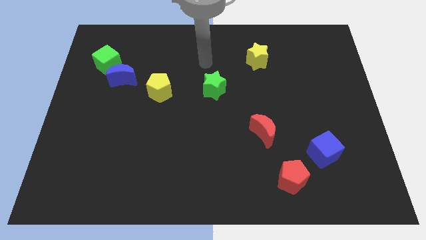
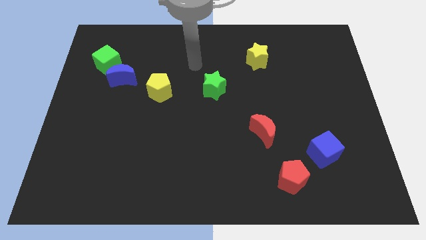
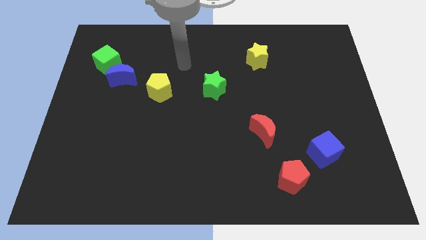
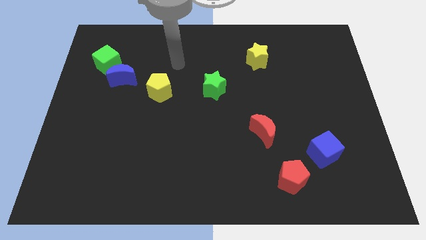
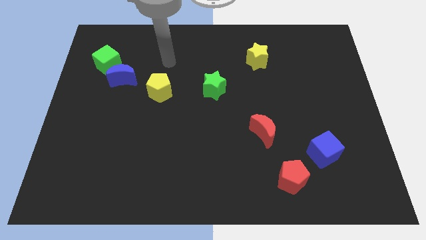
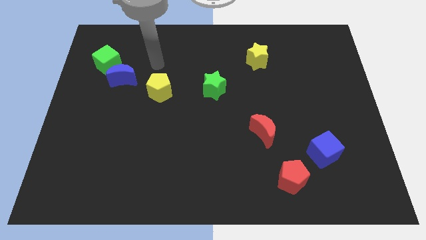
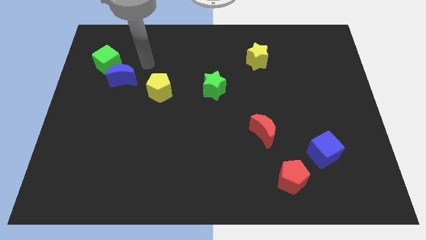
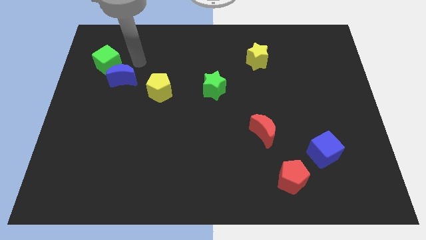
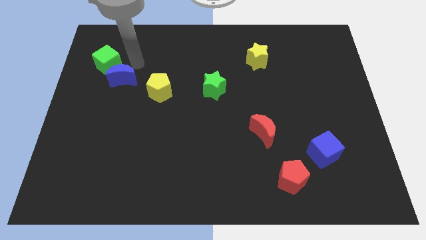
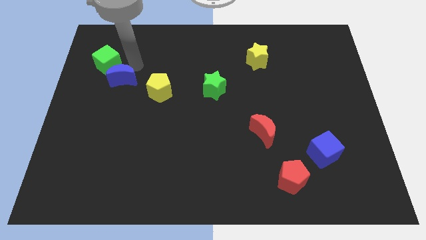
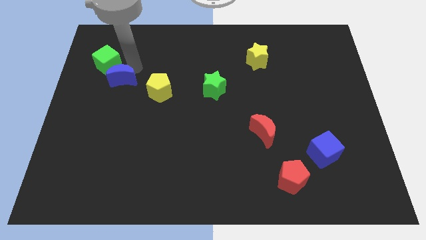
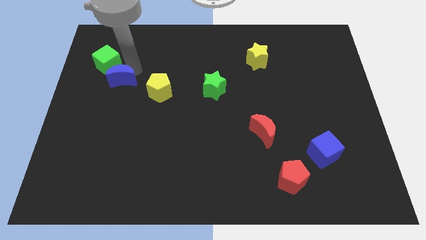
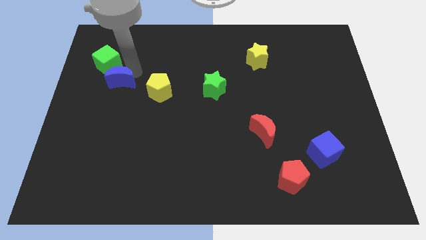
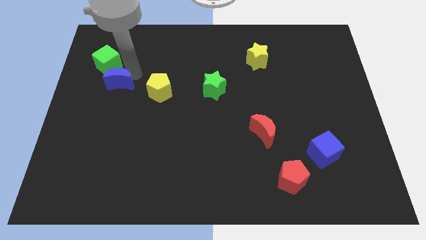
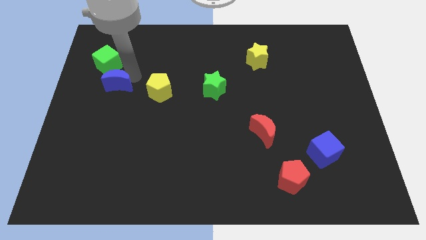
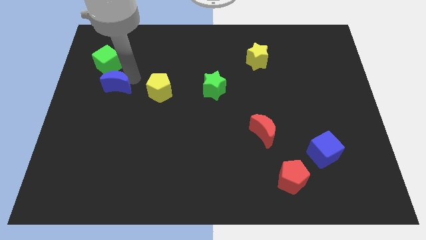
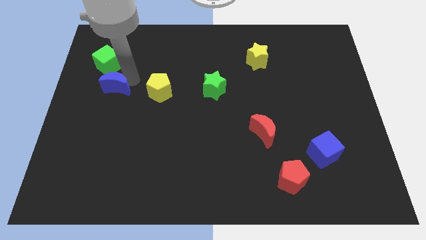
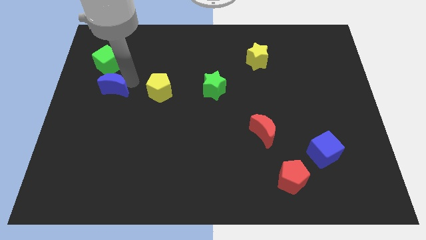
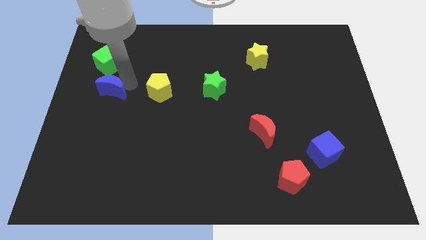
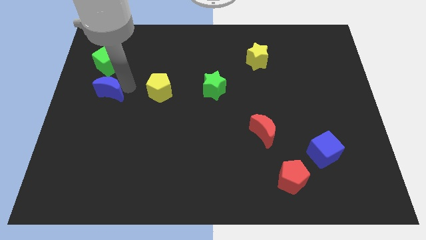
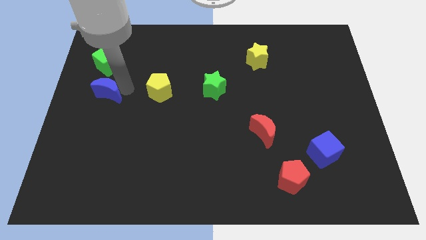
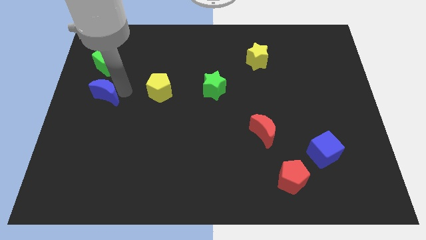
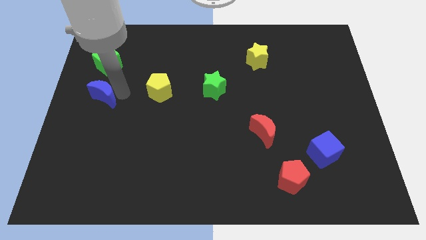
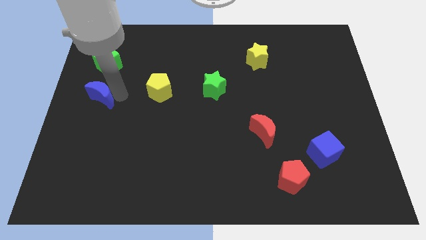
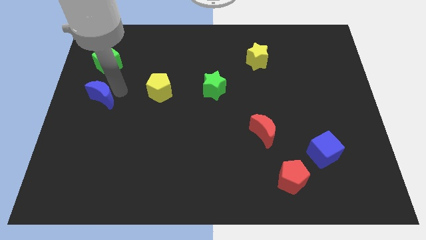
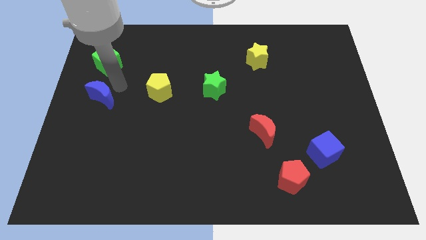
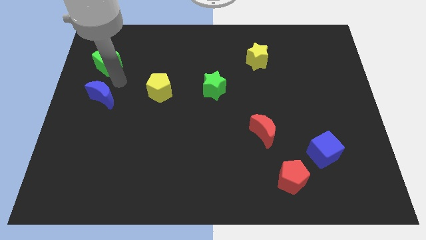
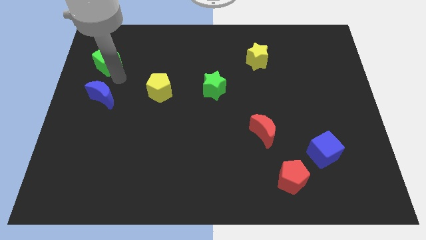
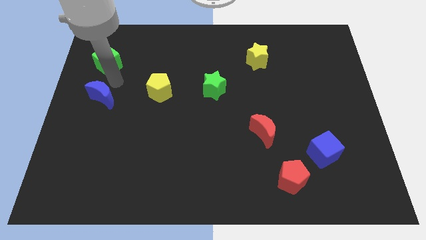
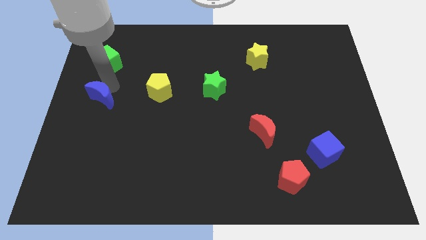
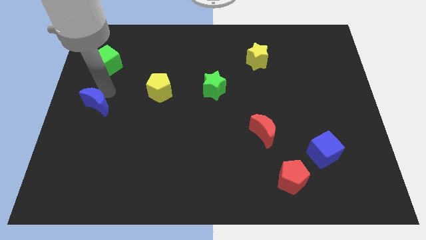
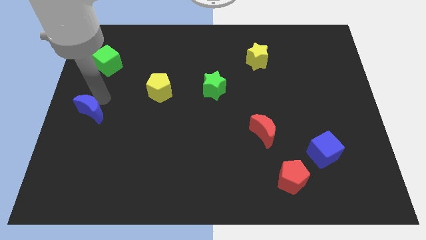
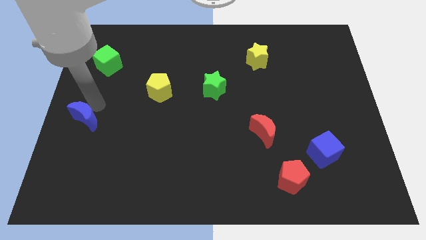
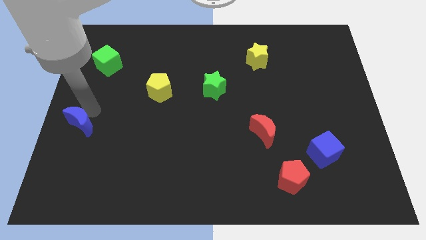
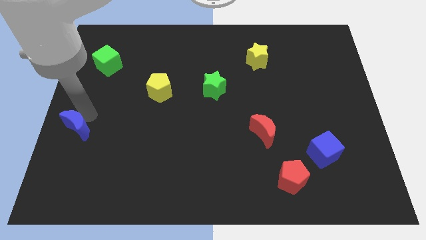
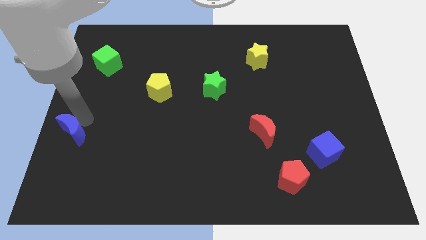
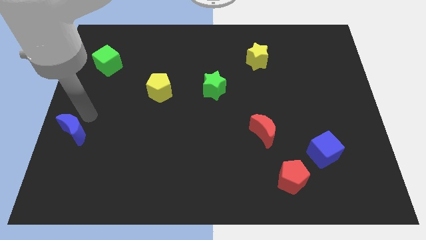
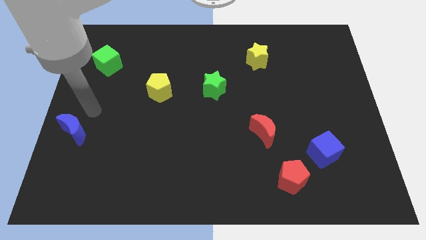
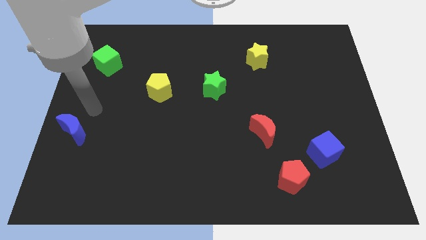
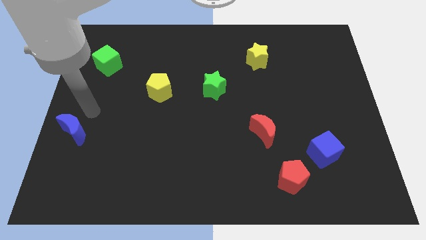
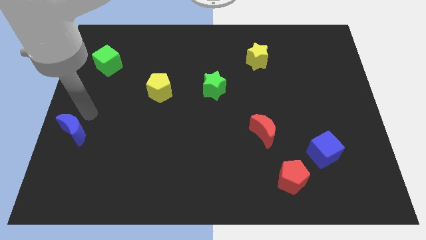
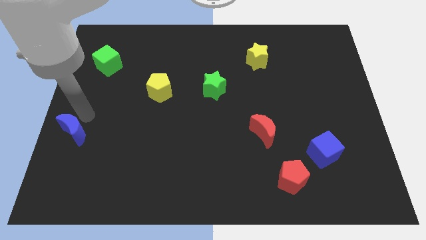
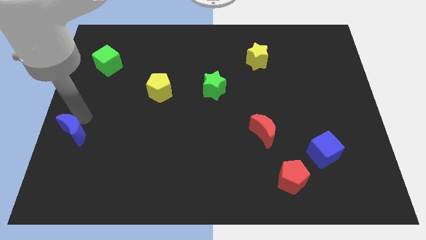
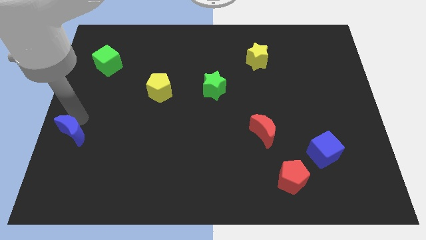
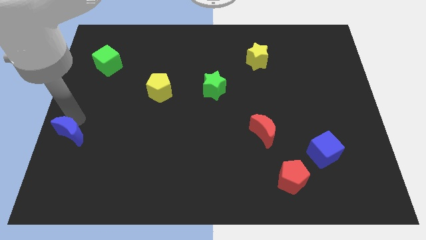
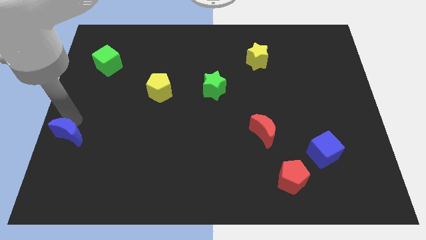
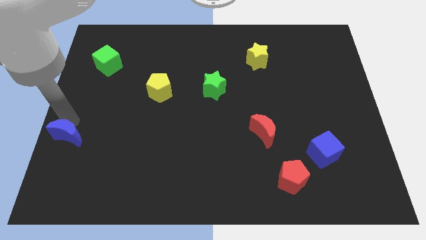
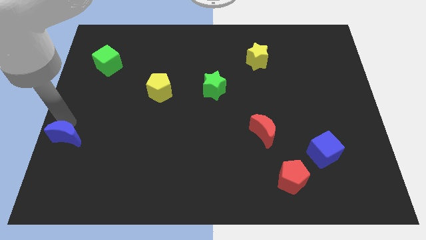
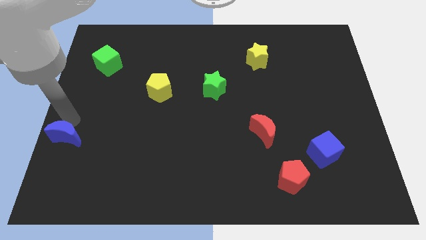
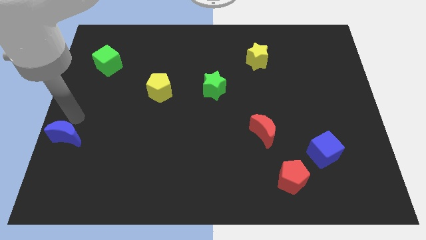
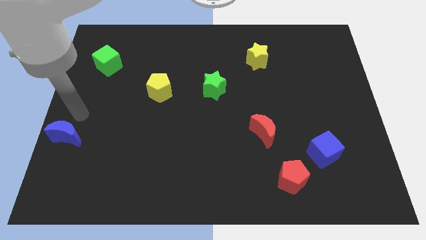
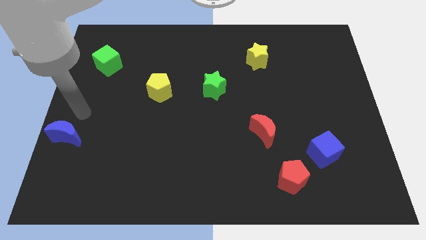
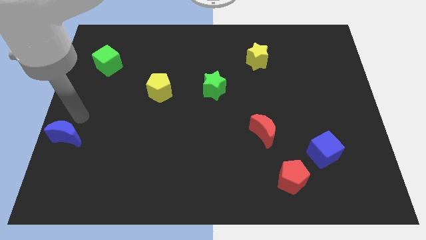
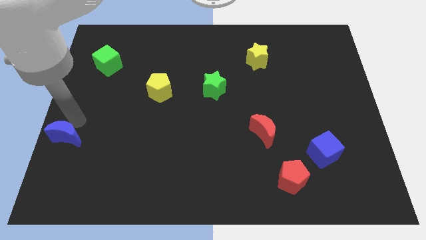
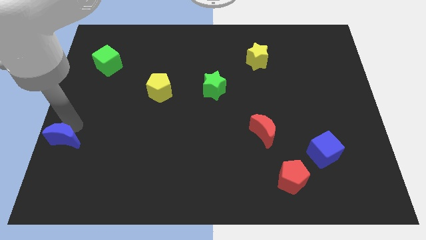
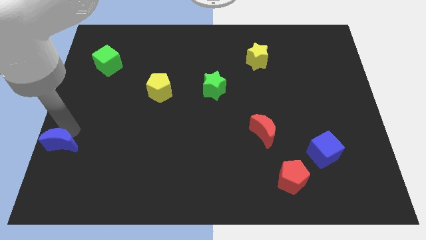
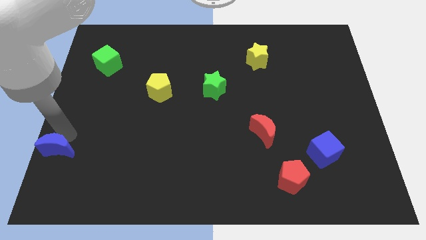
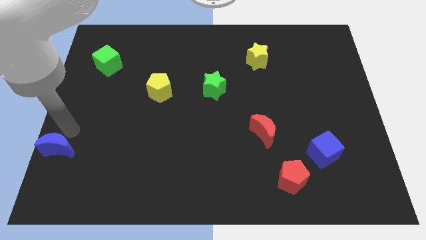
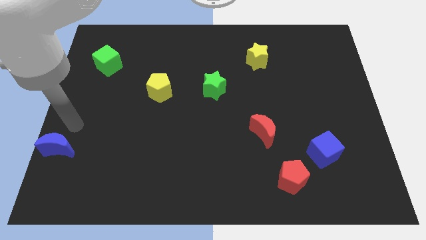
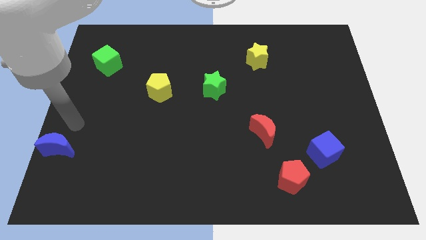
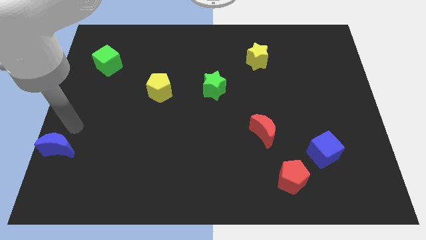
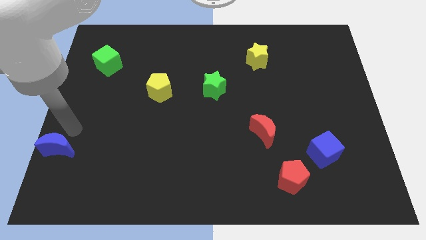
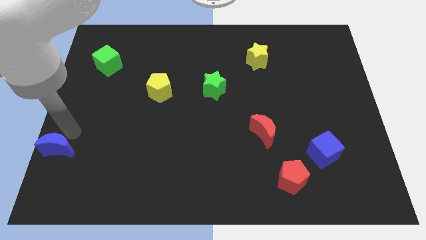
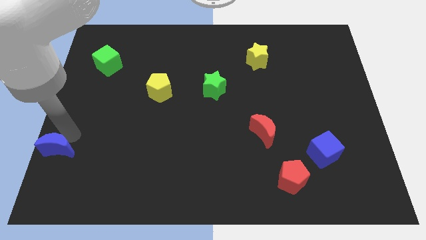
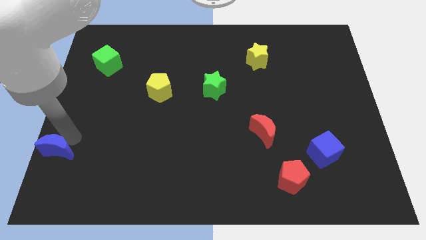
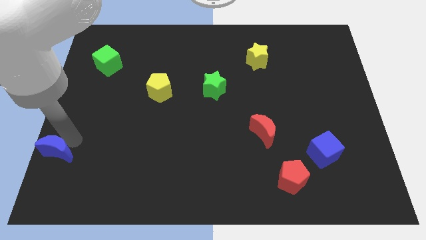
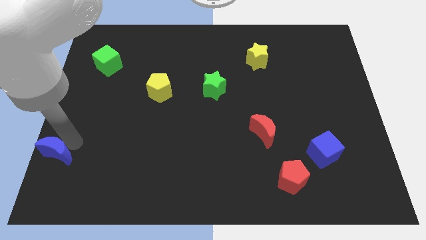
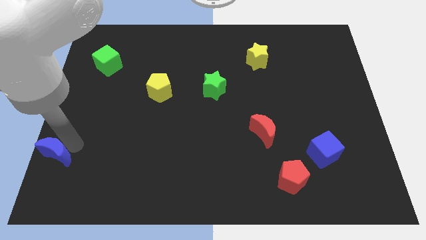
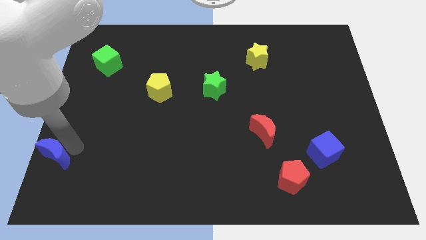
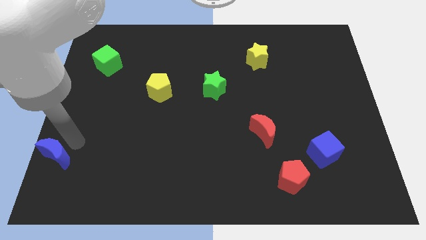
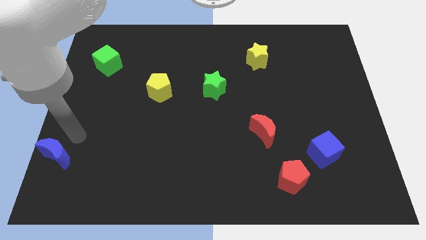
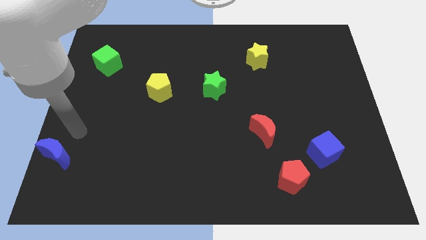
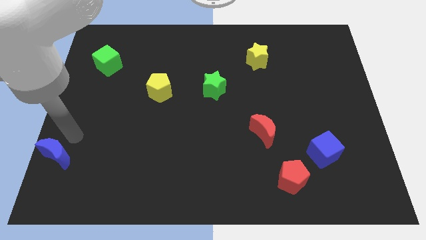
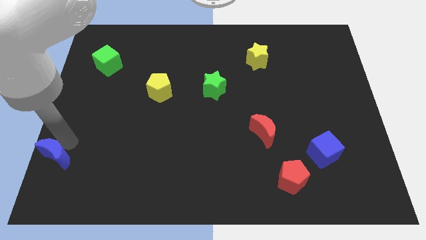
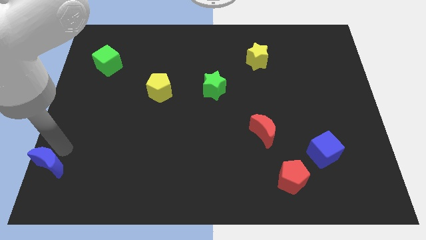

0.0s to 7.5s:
slide the blue moon to the bottom left corner
